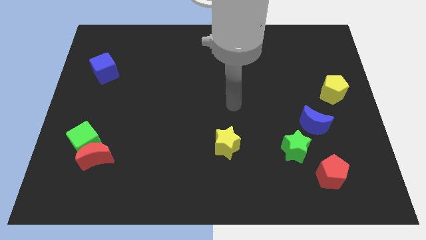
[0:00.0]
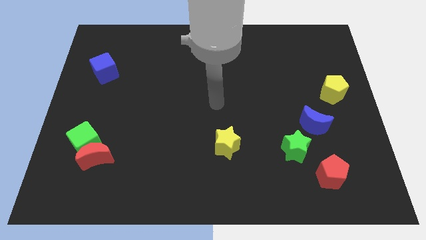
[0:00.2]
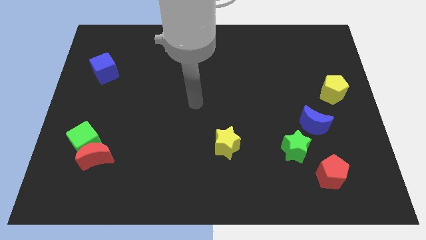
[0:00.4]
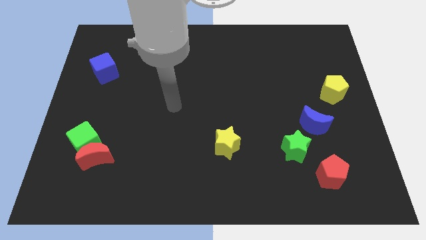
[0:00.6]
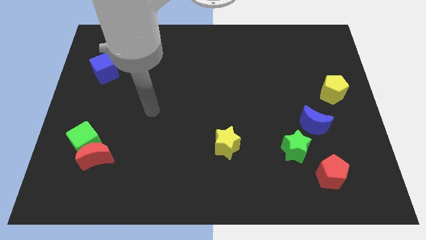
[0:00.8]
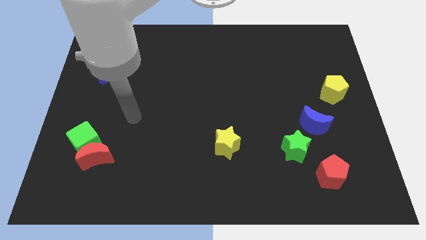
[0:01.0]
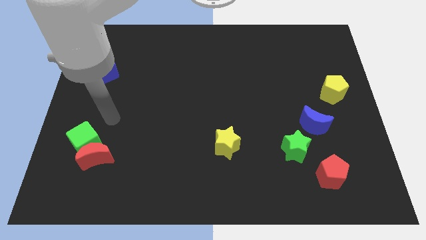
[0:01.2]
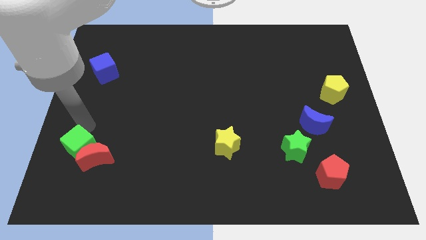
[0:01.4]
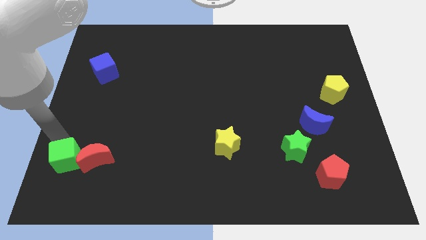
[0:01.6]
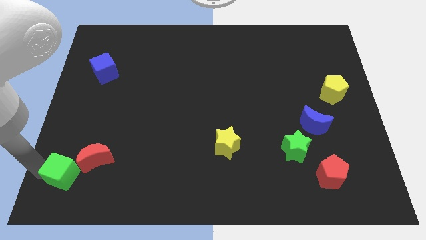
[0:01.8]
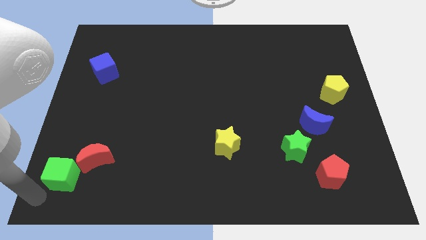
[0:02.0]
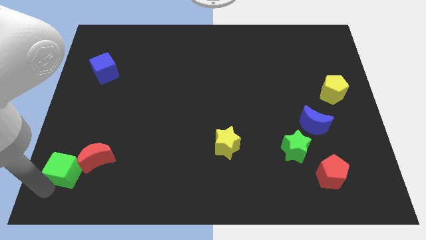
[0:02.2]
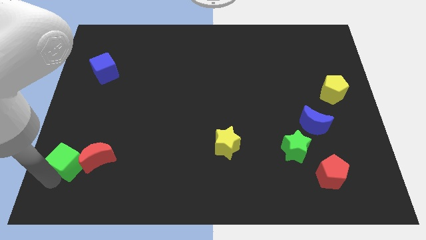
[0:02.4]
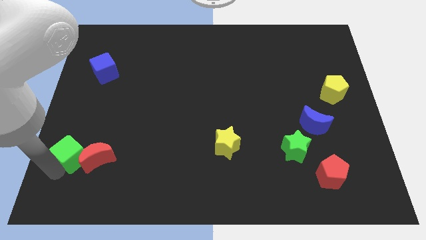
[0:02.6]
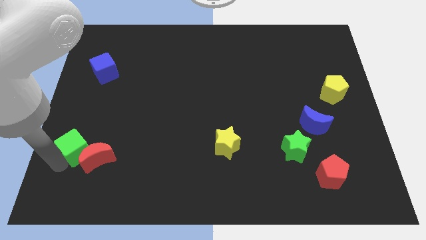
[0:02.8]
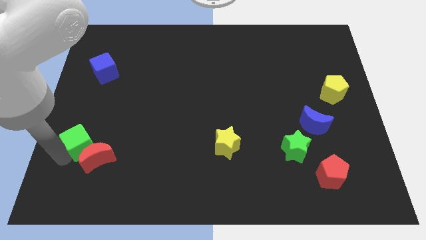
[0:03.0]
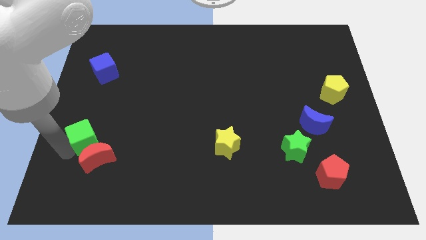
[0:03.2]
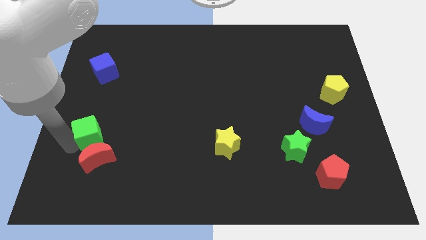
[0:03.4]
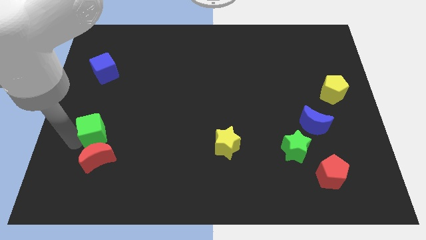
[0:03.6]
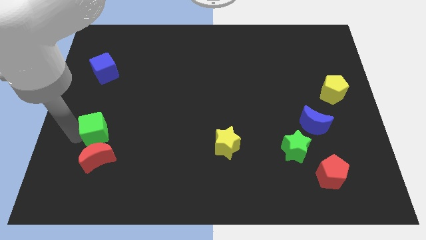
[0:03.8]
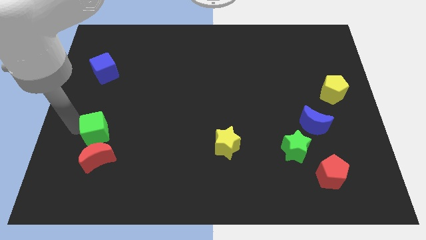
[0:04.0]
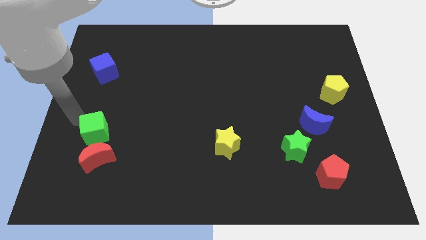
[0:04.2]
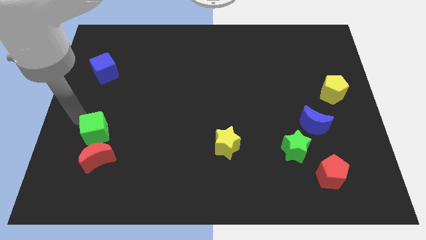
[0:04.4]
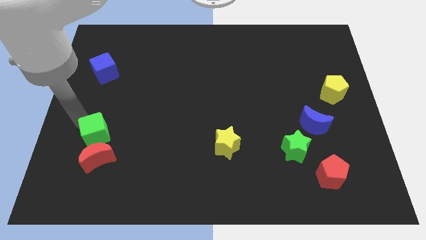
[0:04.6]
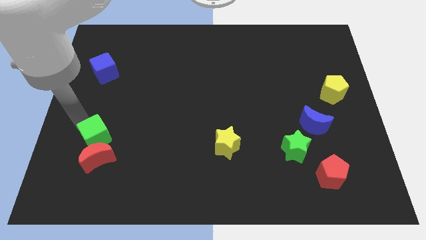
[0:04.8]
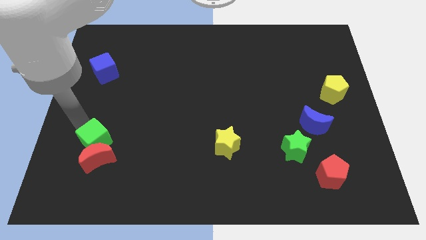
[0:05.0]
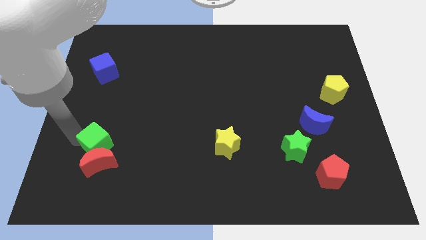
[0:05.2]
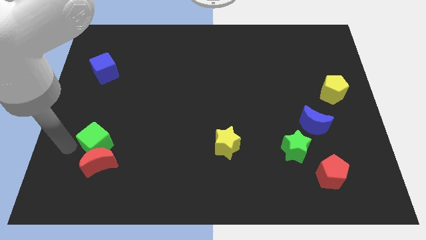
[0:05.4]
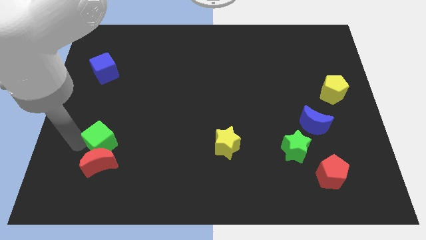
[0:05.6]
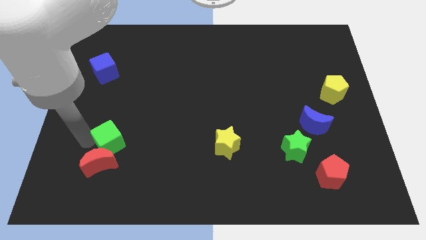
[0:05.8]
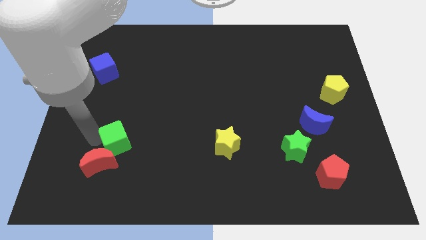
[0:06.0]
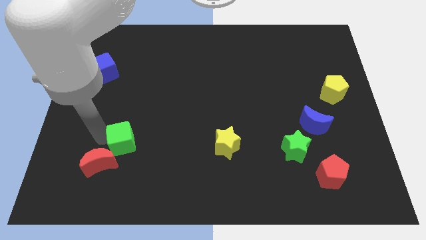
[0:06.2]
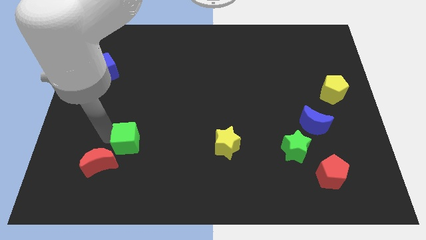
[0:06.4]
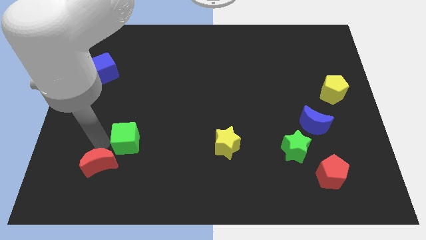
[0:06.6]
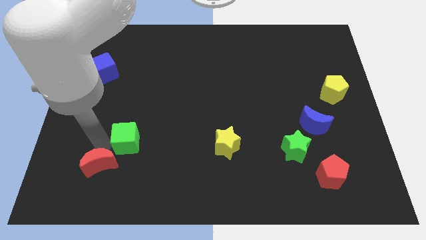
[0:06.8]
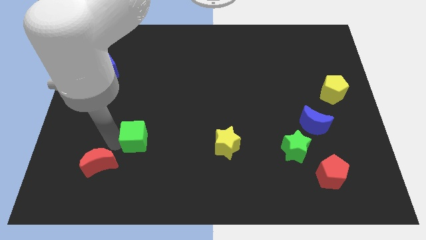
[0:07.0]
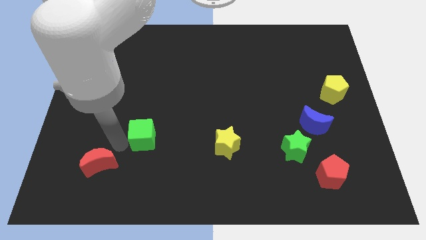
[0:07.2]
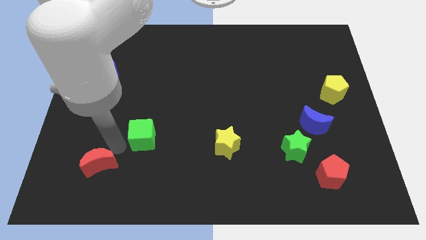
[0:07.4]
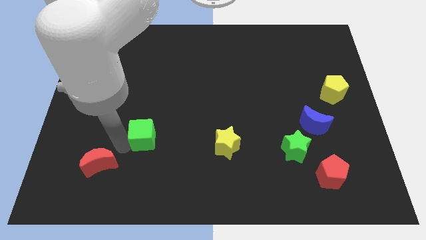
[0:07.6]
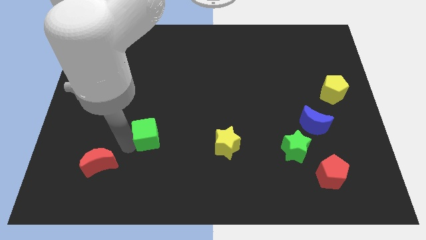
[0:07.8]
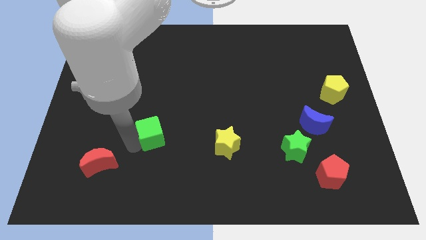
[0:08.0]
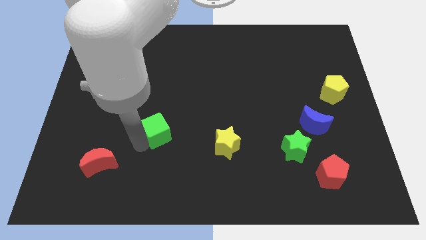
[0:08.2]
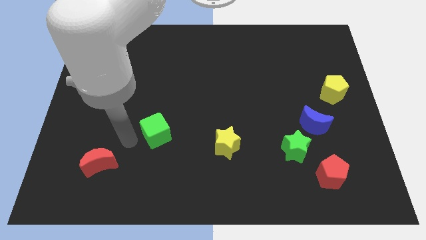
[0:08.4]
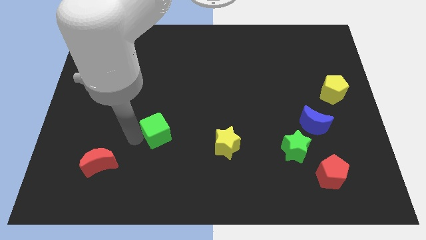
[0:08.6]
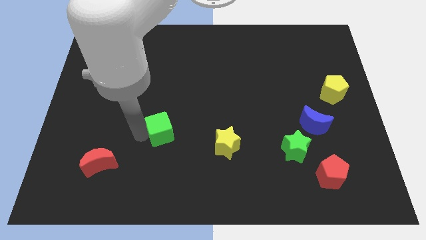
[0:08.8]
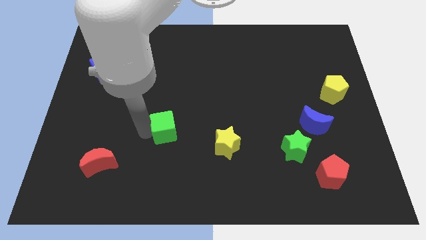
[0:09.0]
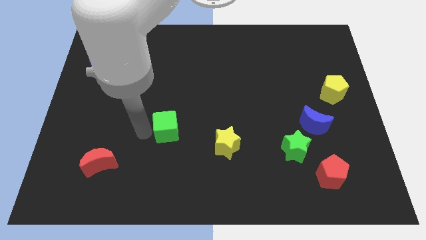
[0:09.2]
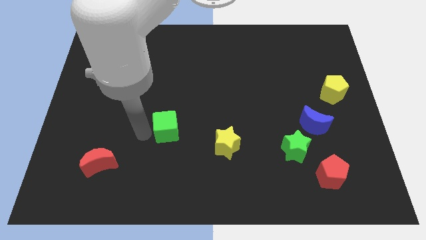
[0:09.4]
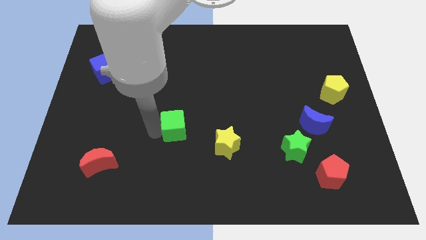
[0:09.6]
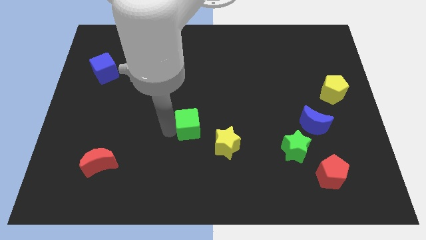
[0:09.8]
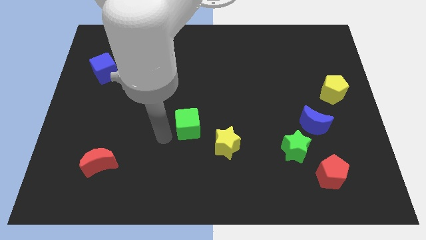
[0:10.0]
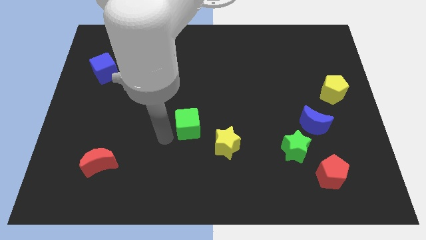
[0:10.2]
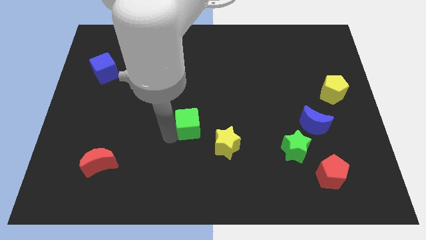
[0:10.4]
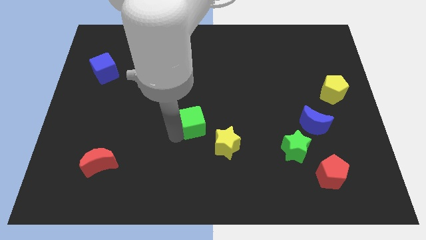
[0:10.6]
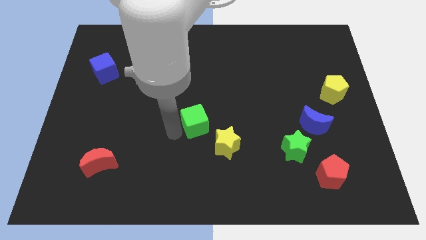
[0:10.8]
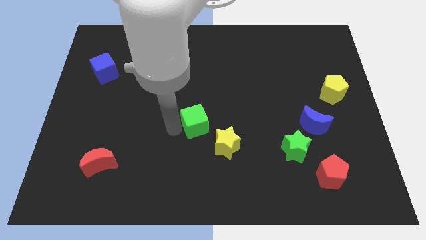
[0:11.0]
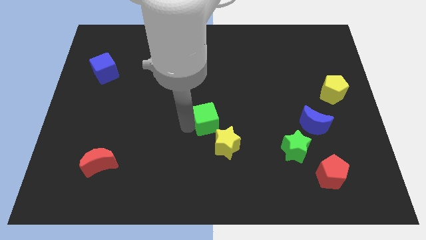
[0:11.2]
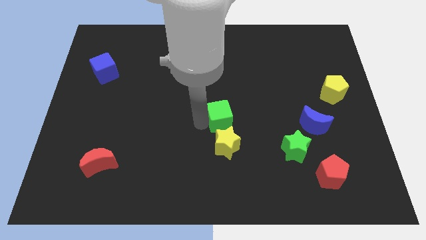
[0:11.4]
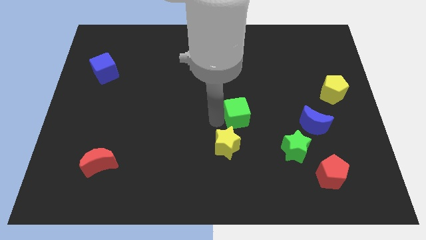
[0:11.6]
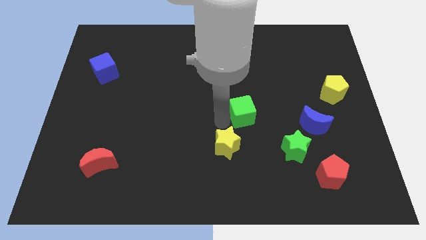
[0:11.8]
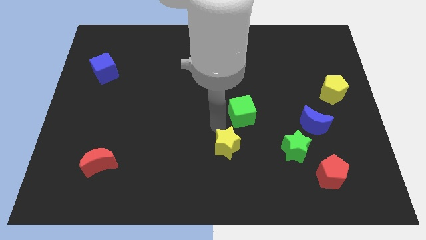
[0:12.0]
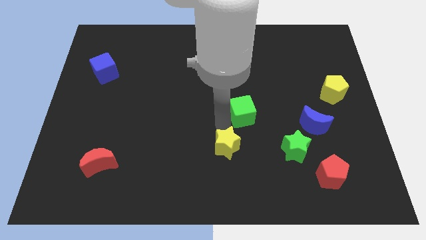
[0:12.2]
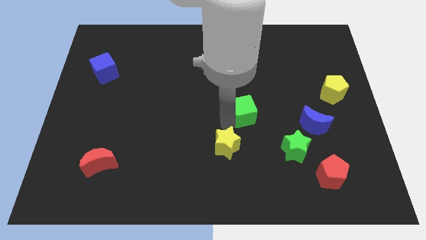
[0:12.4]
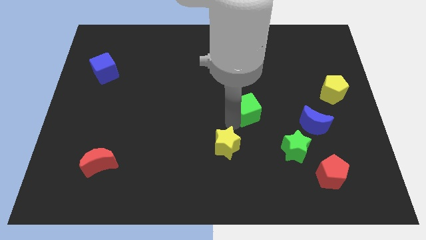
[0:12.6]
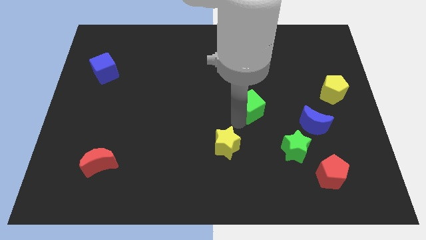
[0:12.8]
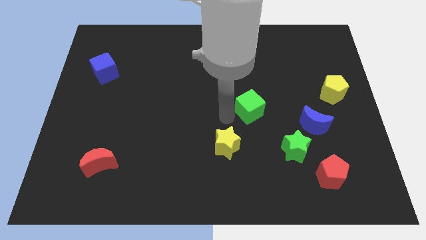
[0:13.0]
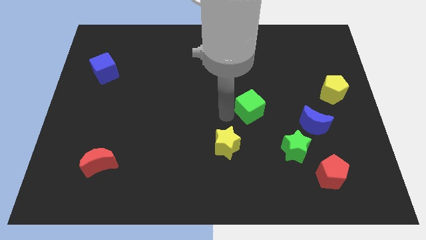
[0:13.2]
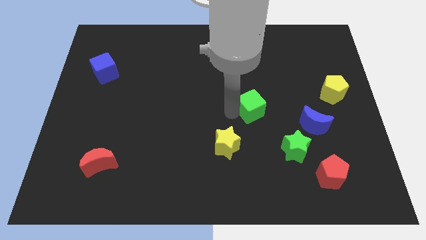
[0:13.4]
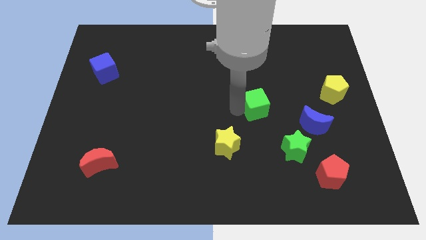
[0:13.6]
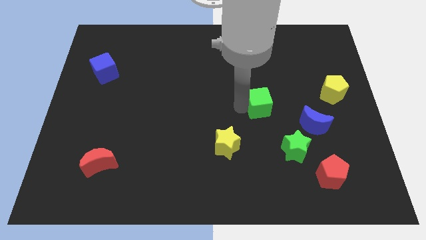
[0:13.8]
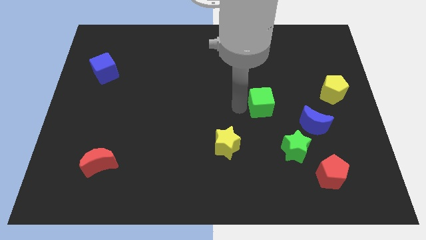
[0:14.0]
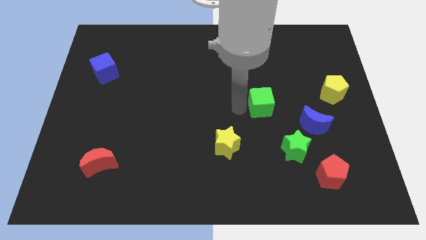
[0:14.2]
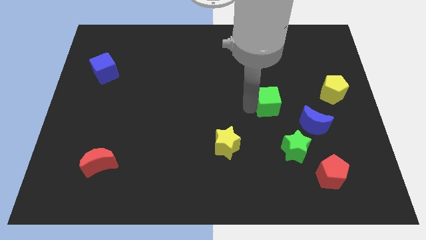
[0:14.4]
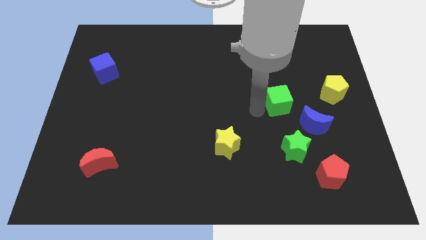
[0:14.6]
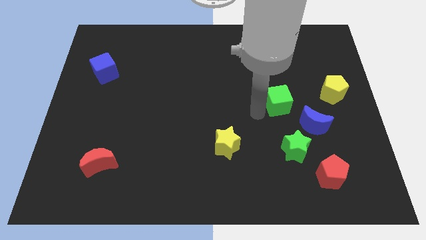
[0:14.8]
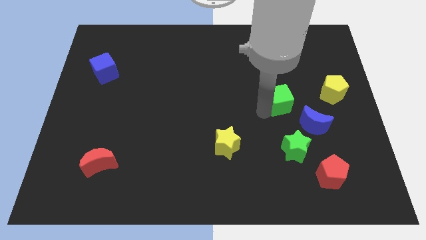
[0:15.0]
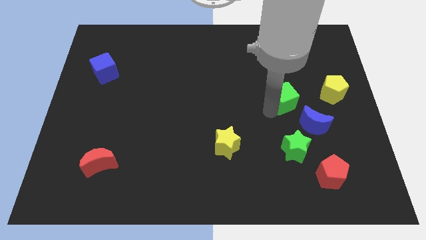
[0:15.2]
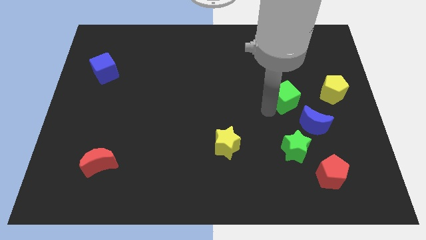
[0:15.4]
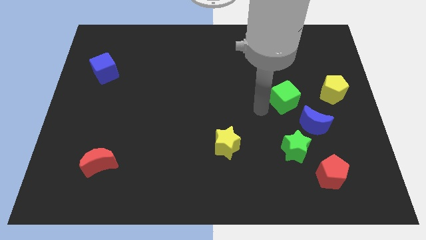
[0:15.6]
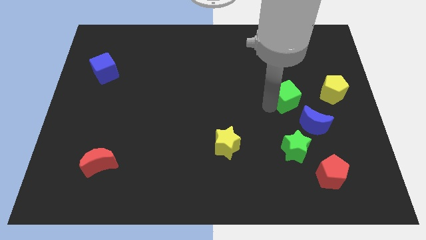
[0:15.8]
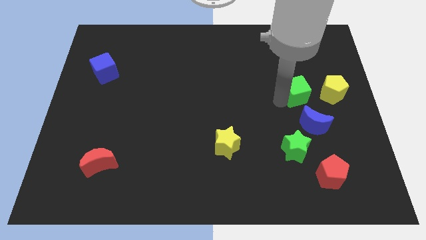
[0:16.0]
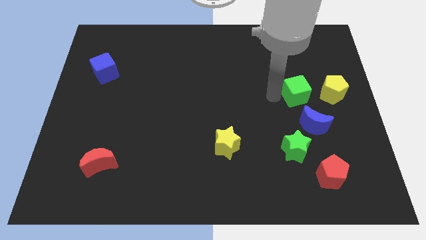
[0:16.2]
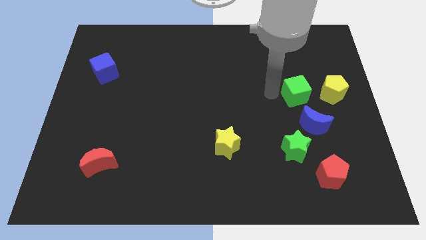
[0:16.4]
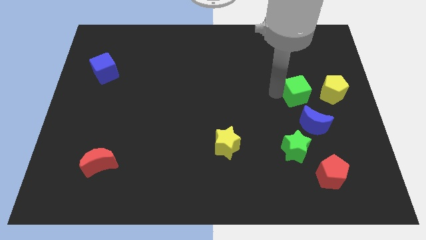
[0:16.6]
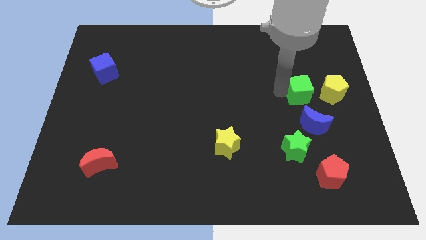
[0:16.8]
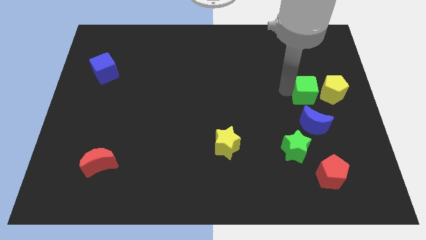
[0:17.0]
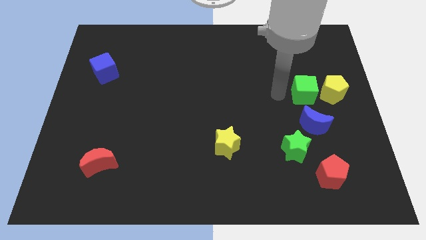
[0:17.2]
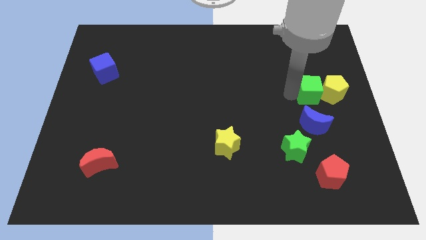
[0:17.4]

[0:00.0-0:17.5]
slide the green cube towards the yellow pentagon
